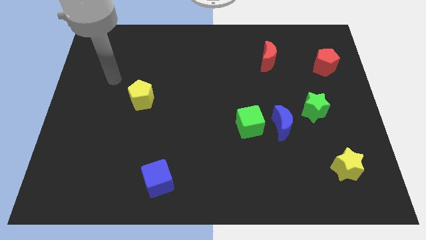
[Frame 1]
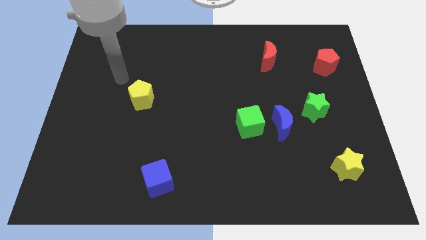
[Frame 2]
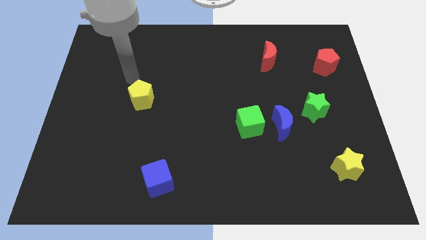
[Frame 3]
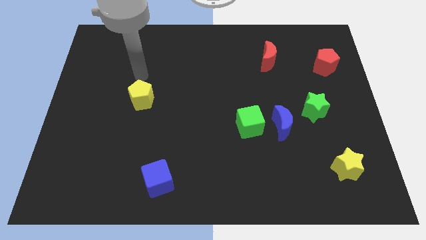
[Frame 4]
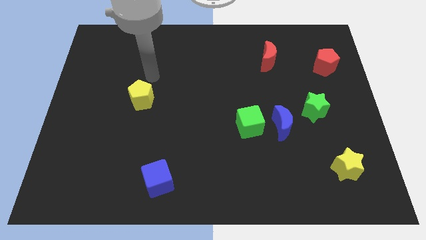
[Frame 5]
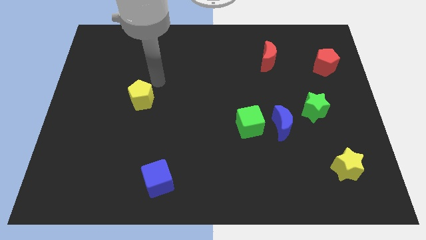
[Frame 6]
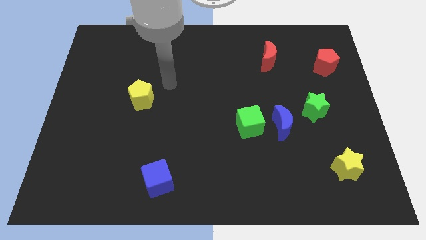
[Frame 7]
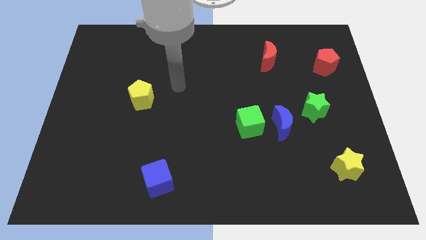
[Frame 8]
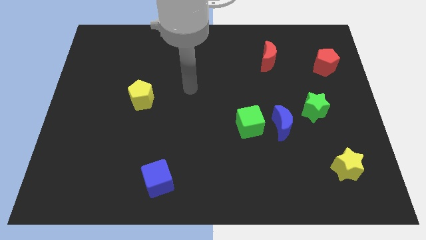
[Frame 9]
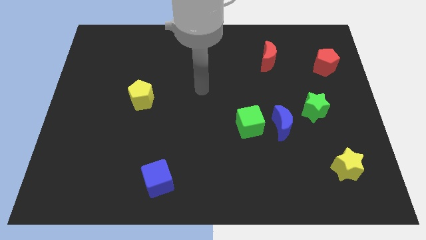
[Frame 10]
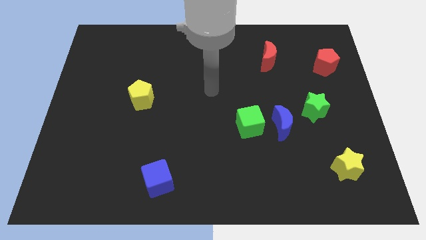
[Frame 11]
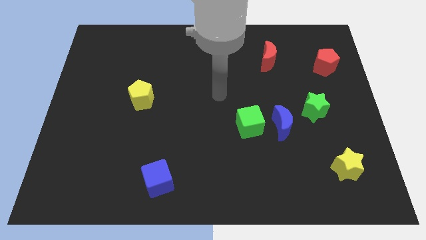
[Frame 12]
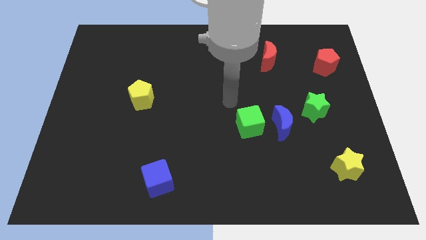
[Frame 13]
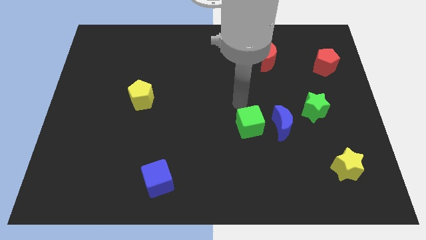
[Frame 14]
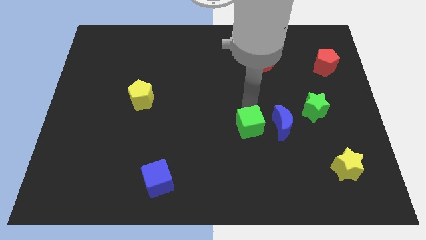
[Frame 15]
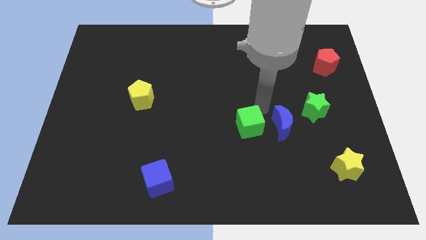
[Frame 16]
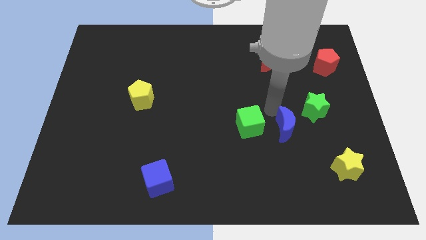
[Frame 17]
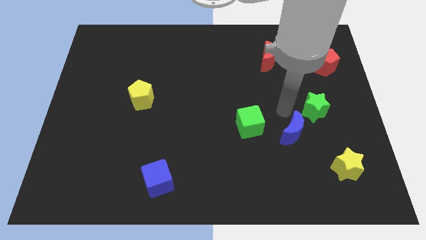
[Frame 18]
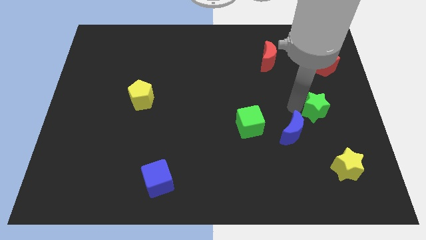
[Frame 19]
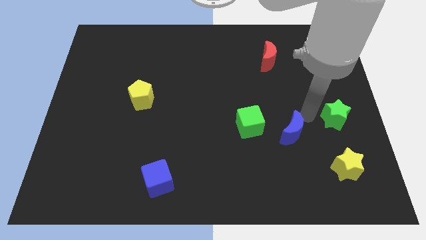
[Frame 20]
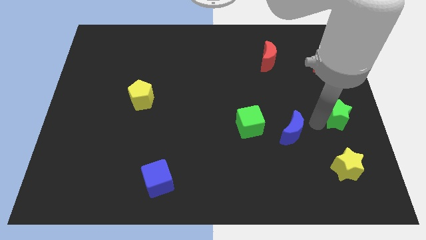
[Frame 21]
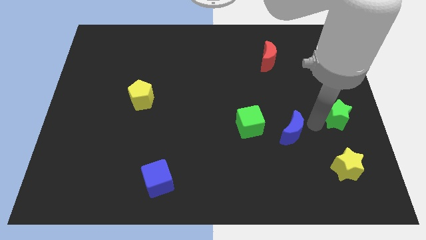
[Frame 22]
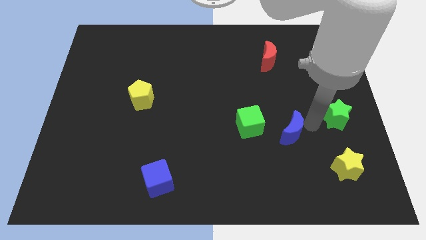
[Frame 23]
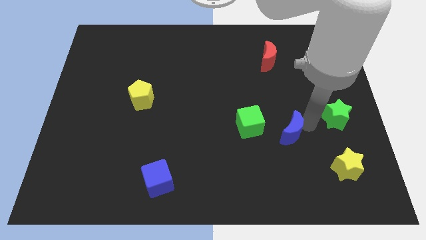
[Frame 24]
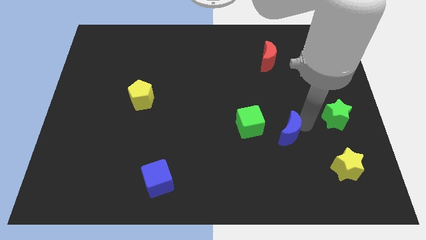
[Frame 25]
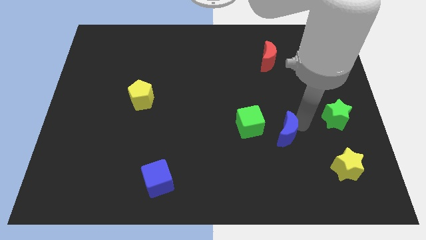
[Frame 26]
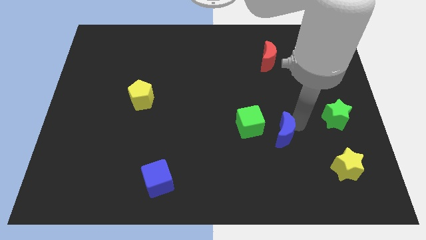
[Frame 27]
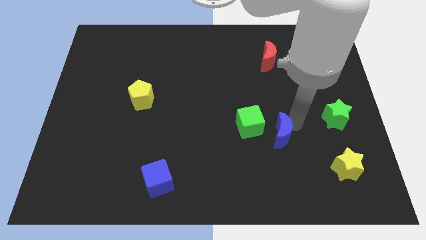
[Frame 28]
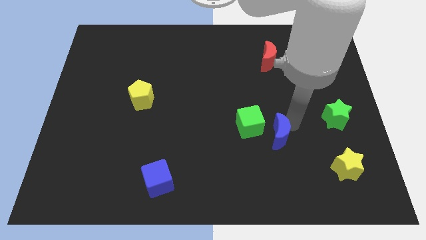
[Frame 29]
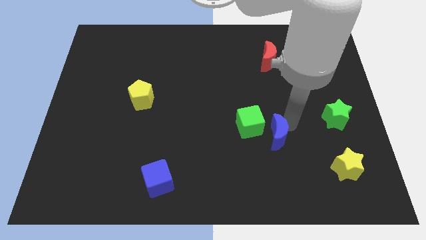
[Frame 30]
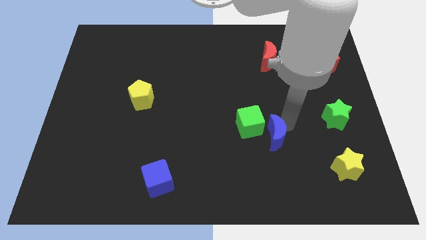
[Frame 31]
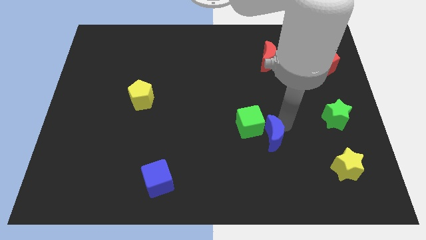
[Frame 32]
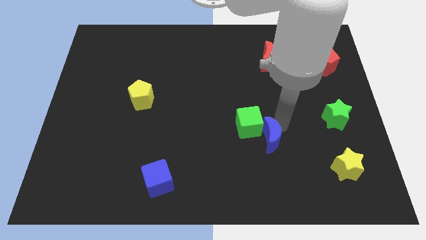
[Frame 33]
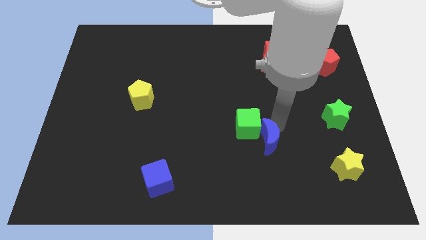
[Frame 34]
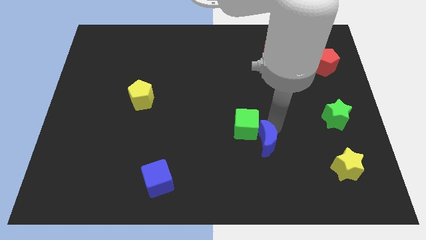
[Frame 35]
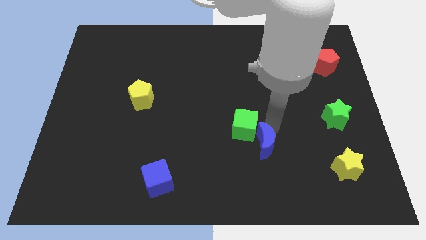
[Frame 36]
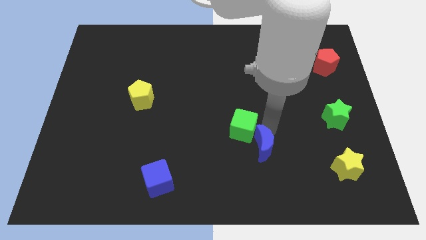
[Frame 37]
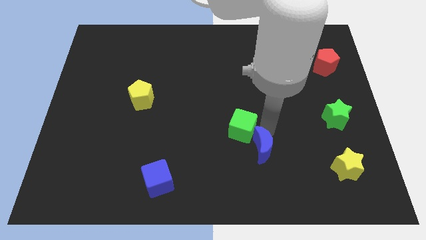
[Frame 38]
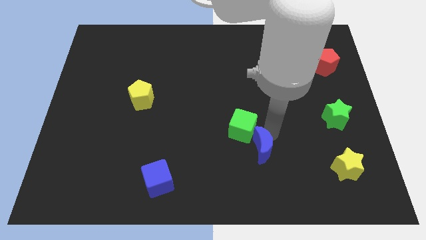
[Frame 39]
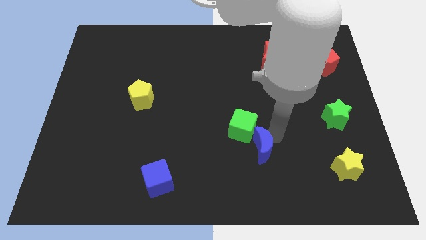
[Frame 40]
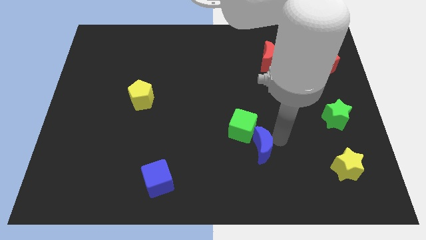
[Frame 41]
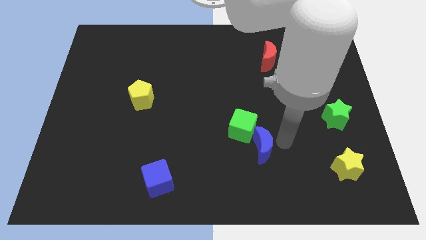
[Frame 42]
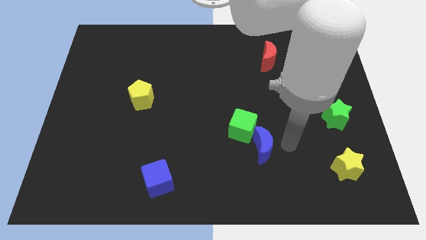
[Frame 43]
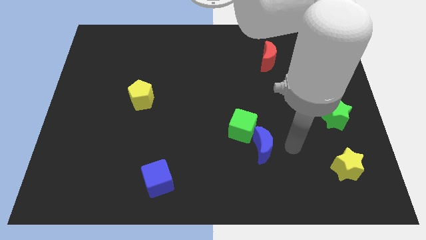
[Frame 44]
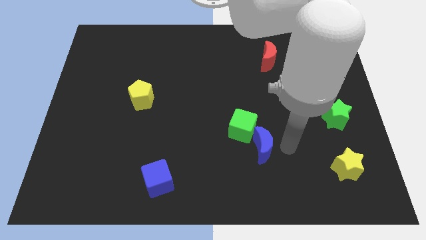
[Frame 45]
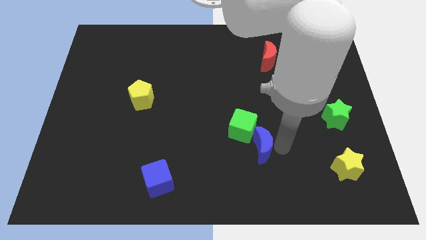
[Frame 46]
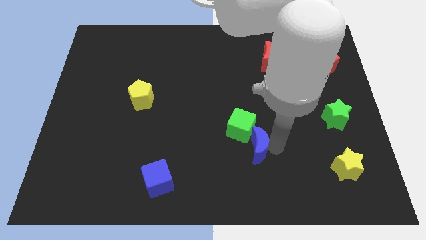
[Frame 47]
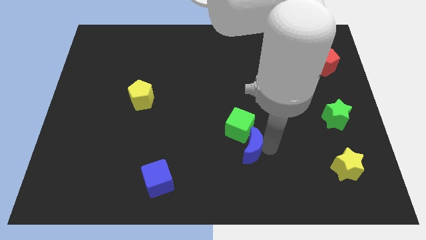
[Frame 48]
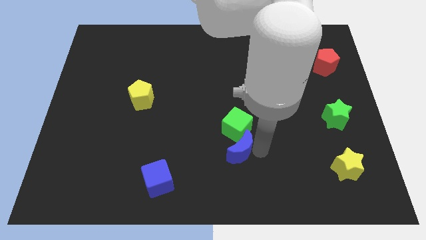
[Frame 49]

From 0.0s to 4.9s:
slightly slide the blue moon left

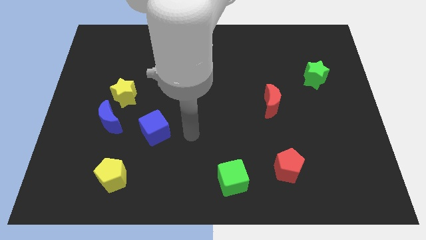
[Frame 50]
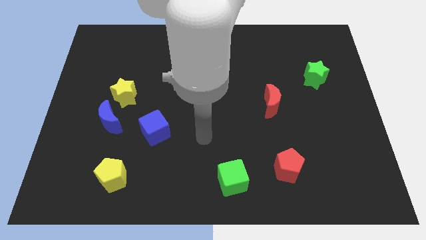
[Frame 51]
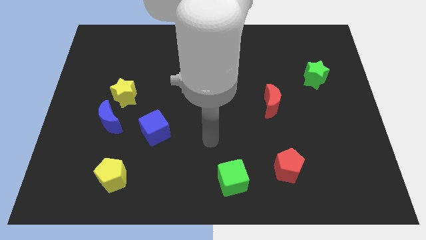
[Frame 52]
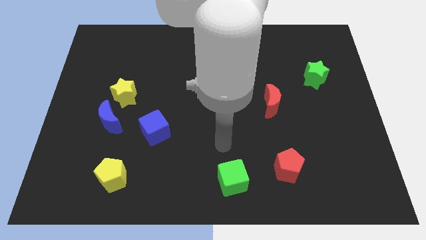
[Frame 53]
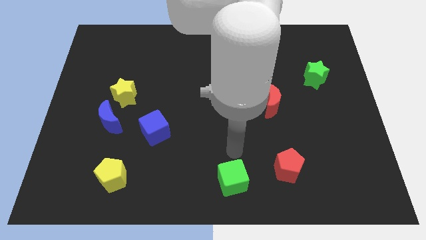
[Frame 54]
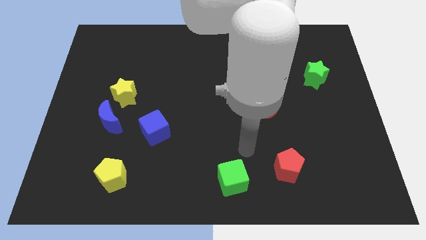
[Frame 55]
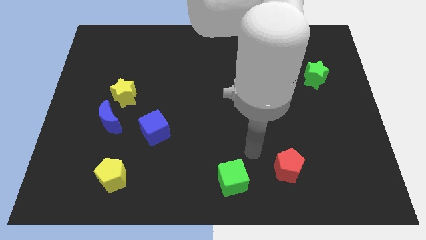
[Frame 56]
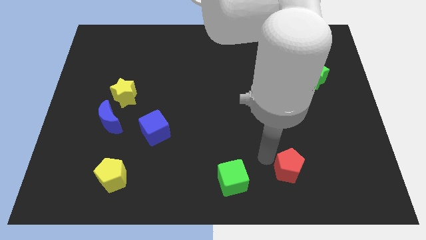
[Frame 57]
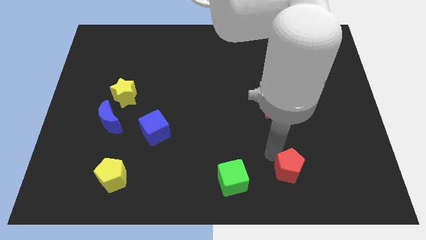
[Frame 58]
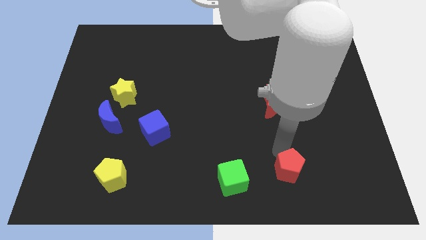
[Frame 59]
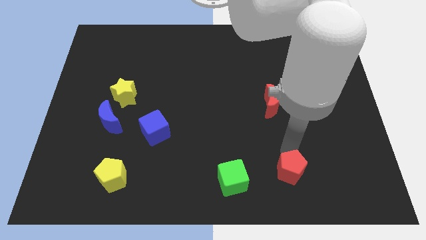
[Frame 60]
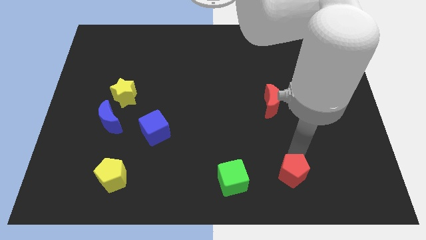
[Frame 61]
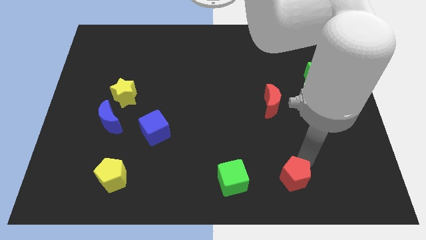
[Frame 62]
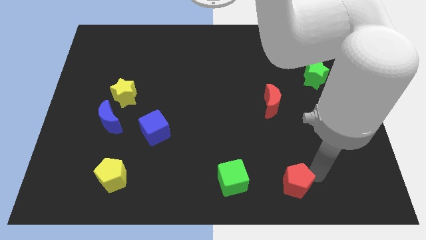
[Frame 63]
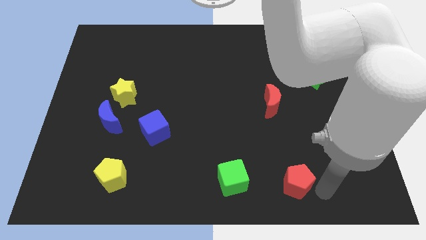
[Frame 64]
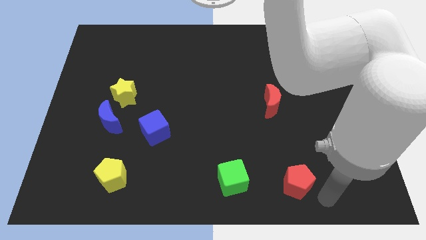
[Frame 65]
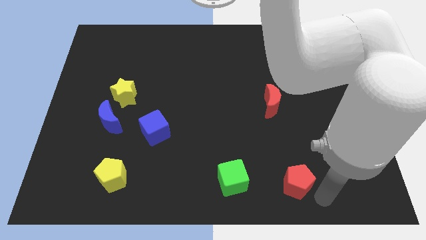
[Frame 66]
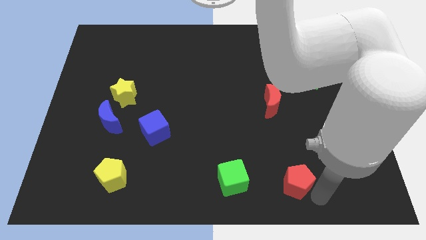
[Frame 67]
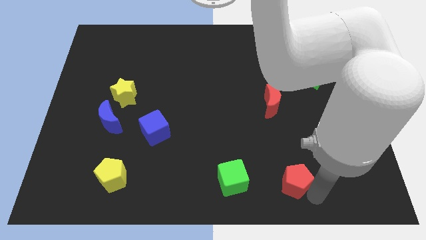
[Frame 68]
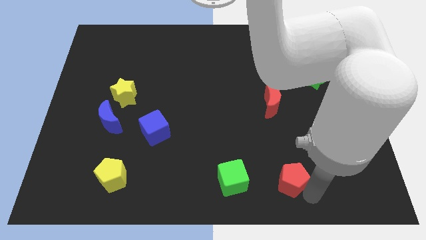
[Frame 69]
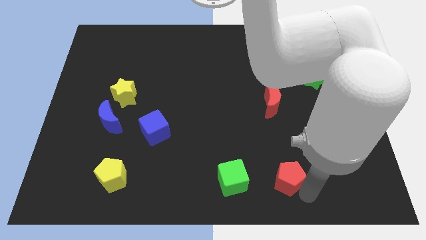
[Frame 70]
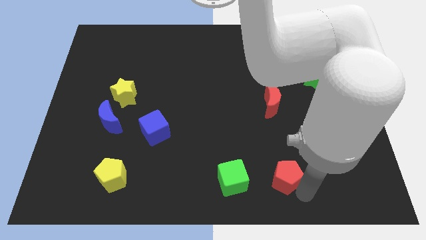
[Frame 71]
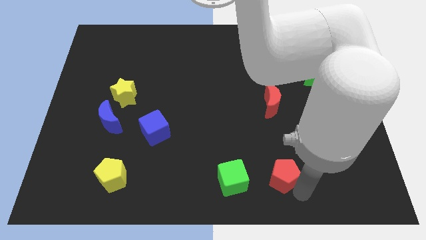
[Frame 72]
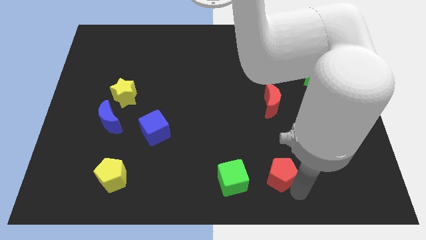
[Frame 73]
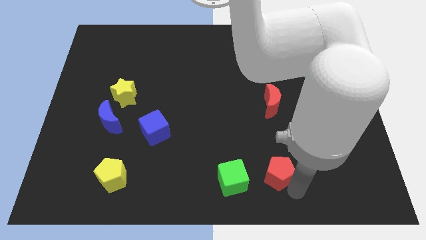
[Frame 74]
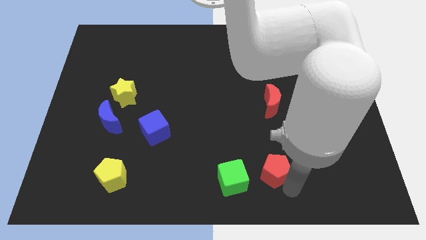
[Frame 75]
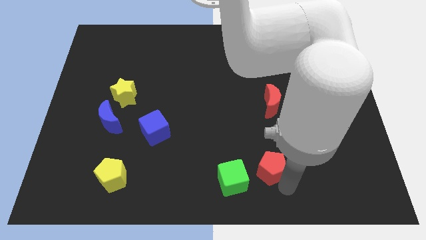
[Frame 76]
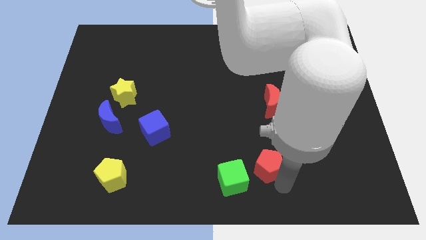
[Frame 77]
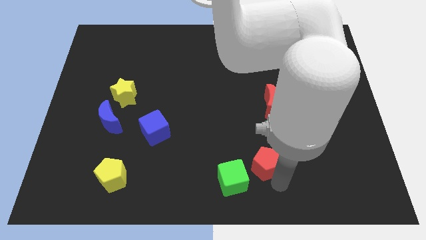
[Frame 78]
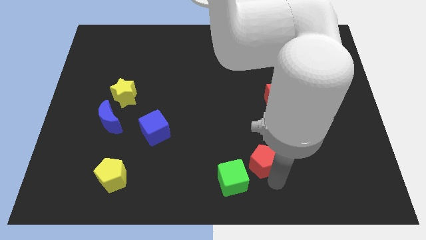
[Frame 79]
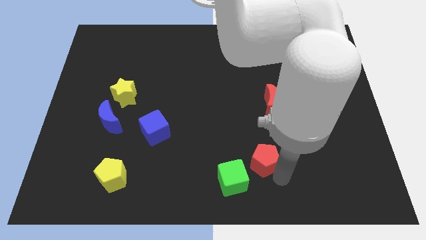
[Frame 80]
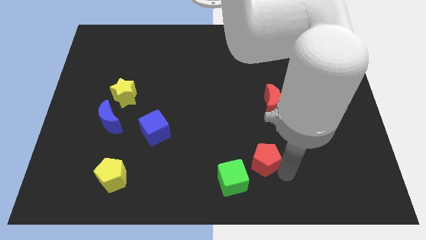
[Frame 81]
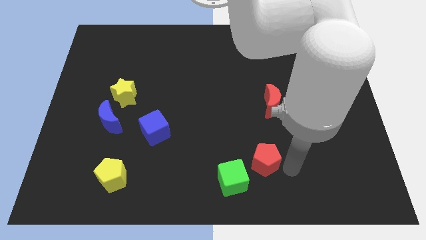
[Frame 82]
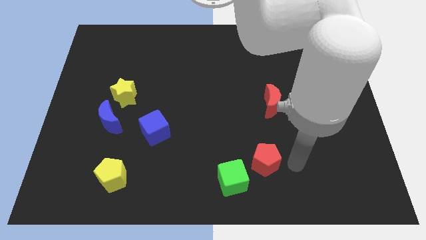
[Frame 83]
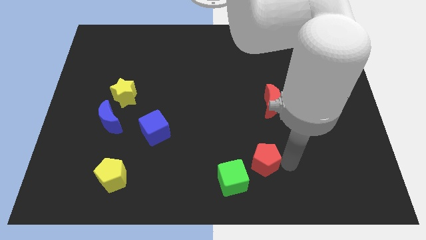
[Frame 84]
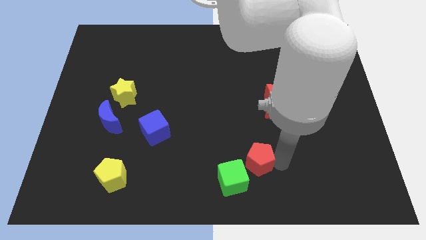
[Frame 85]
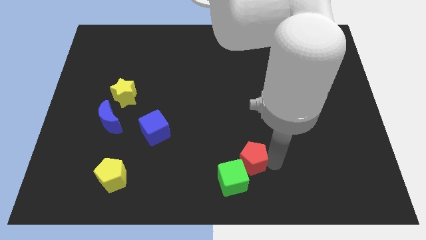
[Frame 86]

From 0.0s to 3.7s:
slide the red pentagon a bit left
